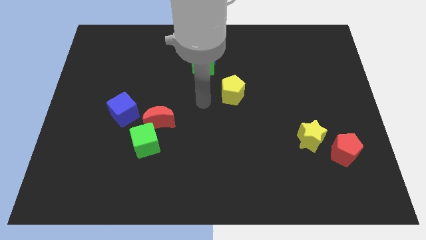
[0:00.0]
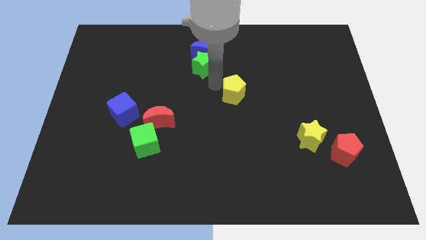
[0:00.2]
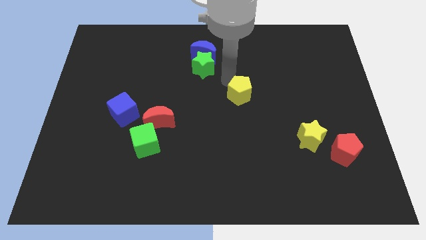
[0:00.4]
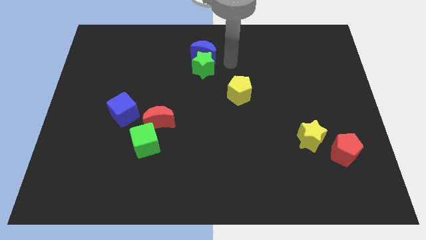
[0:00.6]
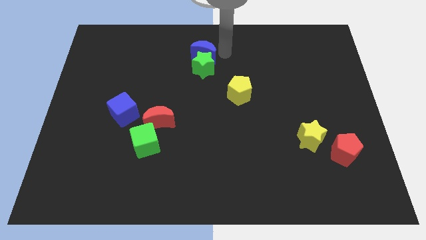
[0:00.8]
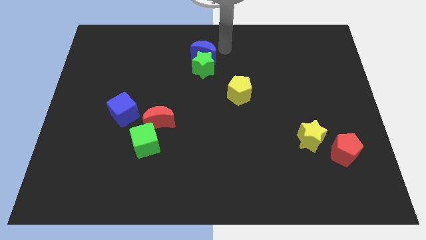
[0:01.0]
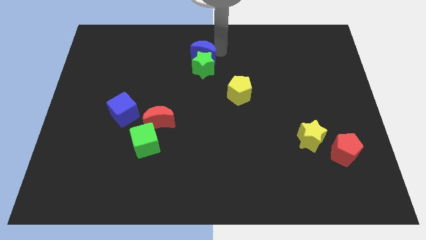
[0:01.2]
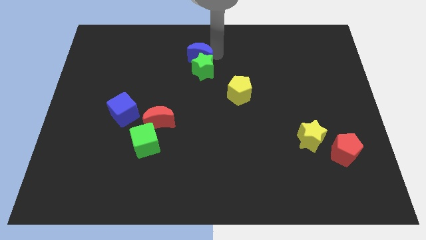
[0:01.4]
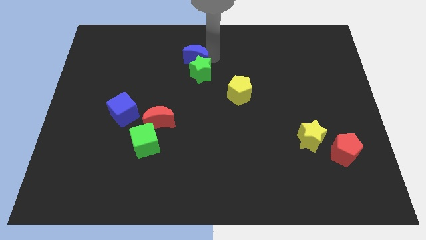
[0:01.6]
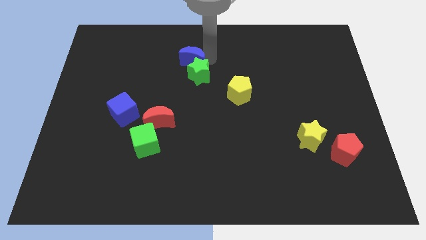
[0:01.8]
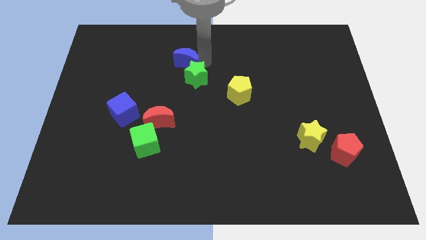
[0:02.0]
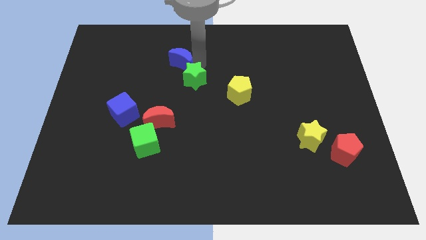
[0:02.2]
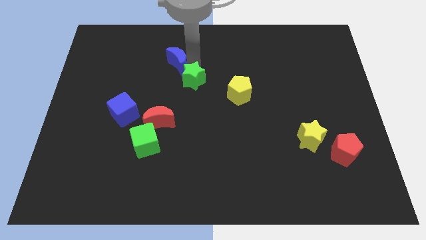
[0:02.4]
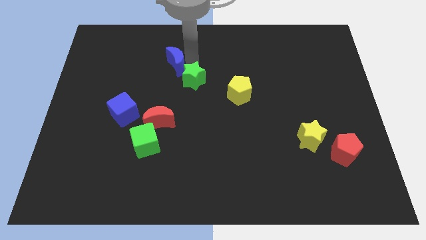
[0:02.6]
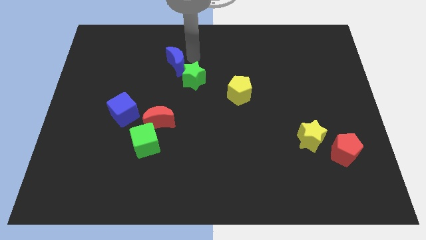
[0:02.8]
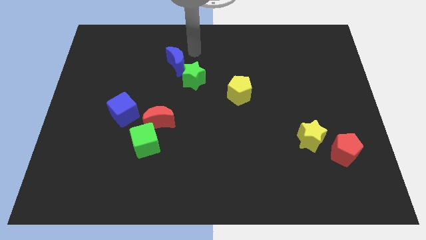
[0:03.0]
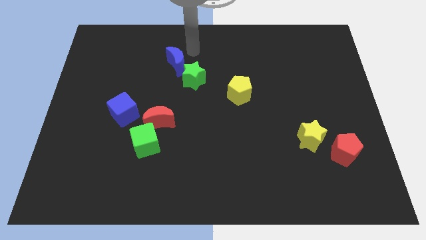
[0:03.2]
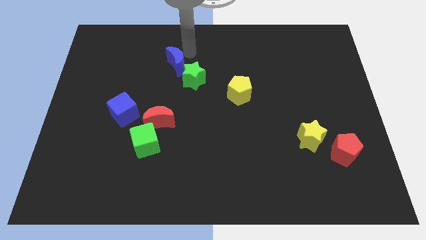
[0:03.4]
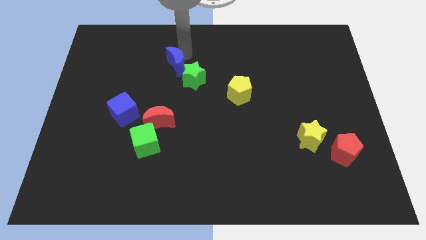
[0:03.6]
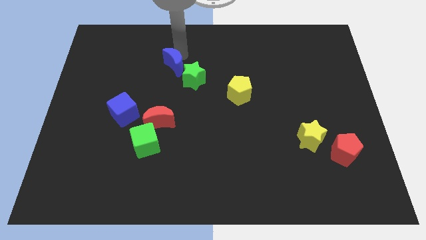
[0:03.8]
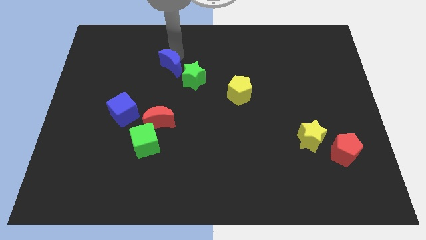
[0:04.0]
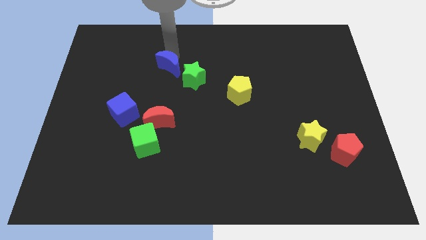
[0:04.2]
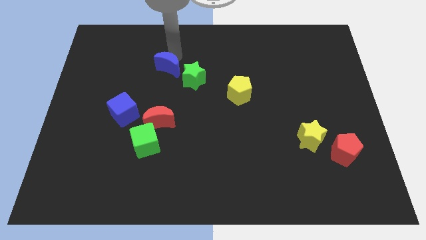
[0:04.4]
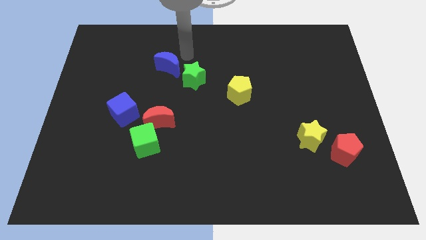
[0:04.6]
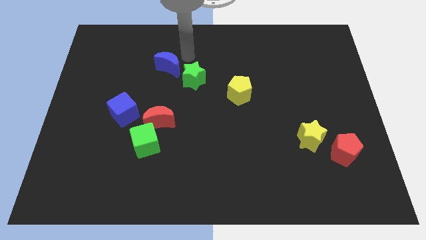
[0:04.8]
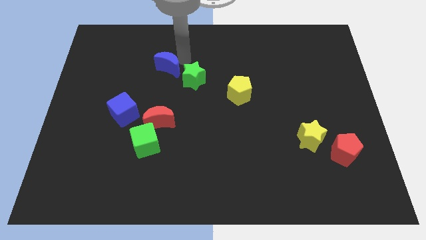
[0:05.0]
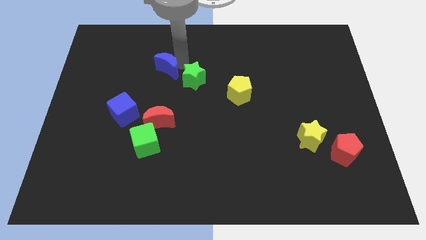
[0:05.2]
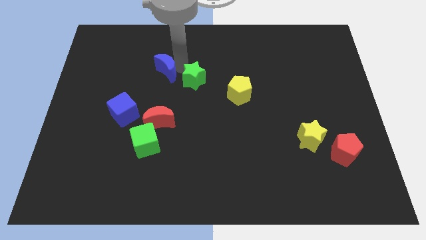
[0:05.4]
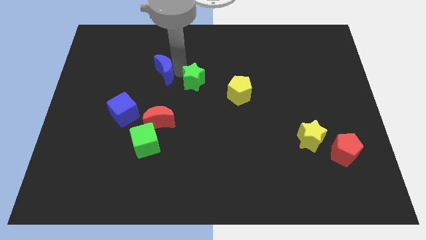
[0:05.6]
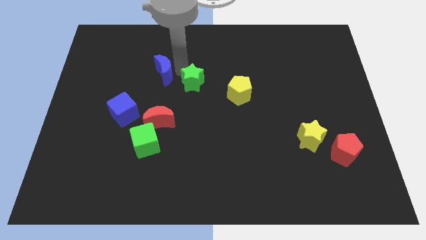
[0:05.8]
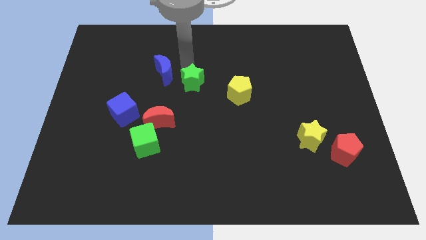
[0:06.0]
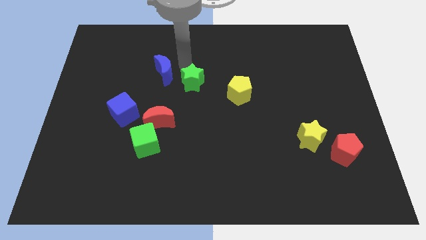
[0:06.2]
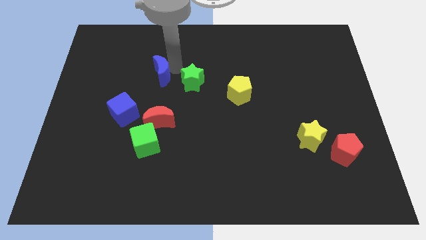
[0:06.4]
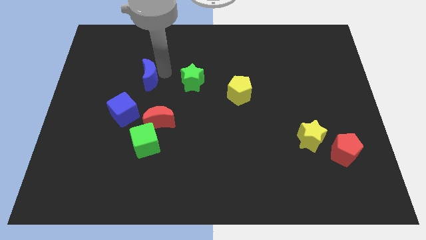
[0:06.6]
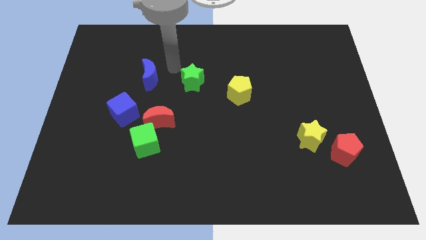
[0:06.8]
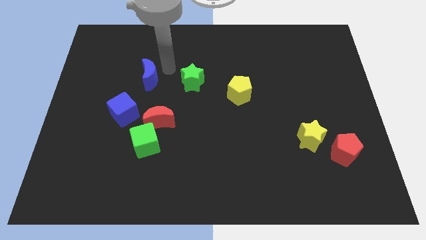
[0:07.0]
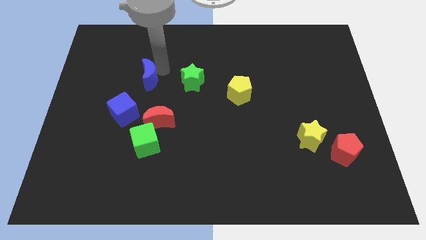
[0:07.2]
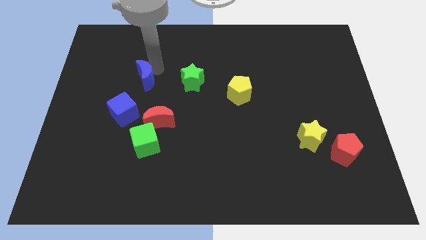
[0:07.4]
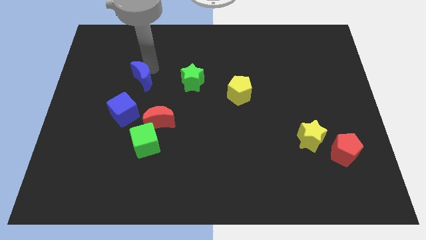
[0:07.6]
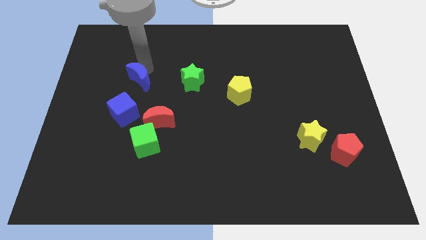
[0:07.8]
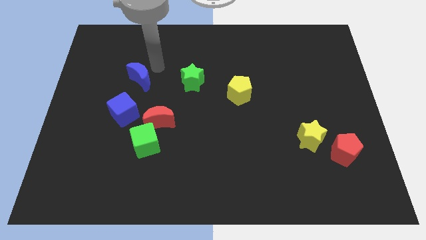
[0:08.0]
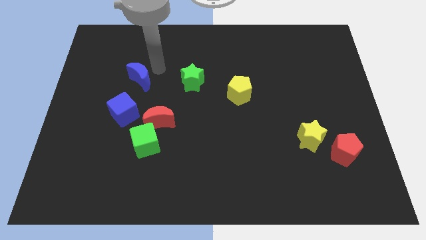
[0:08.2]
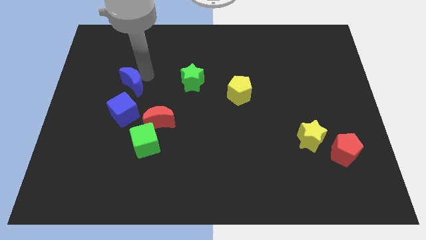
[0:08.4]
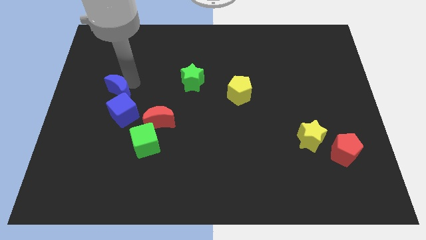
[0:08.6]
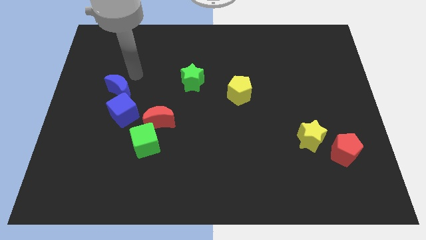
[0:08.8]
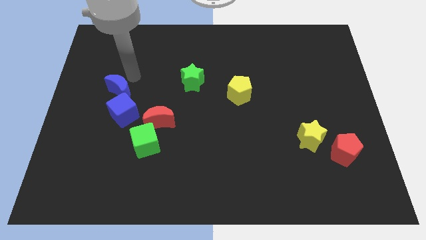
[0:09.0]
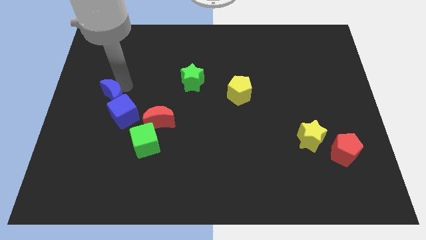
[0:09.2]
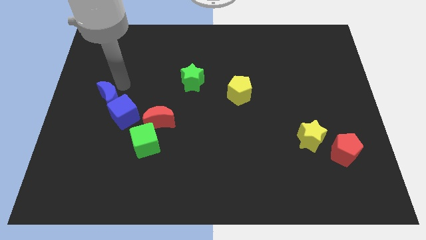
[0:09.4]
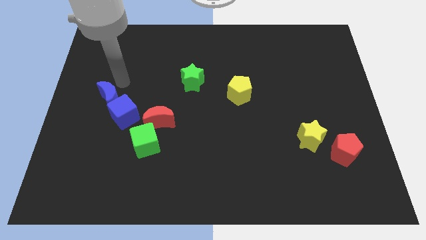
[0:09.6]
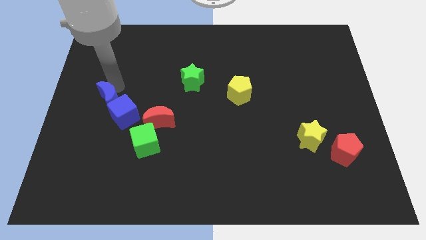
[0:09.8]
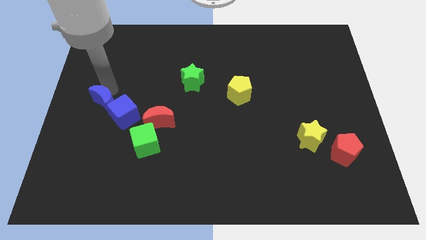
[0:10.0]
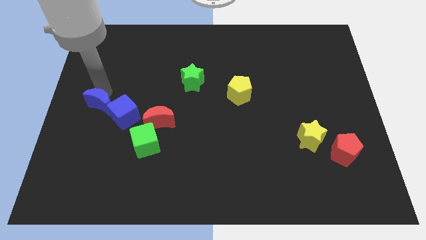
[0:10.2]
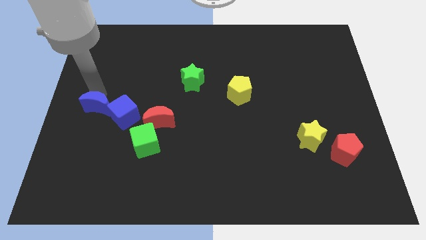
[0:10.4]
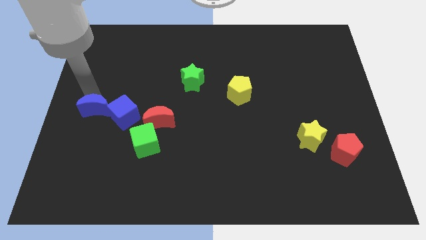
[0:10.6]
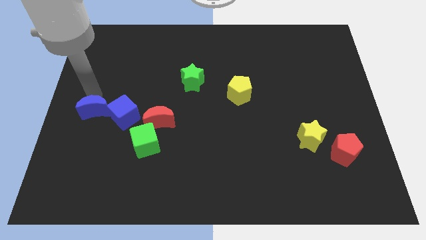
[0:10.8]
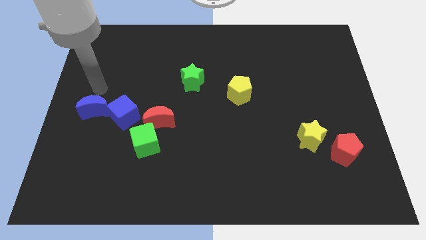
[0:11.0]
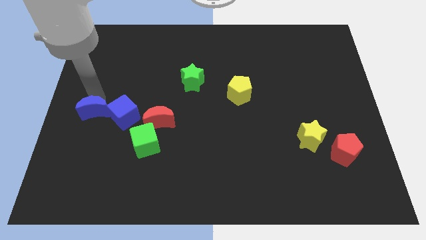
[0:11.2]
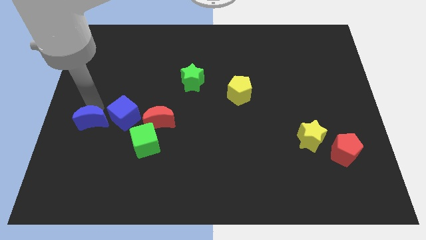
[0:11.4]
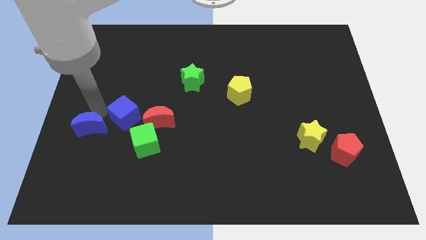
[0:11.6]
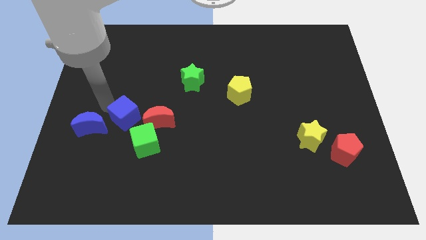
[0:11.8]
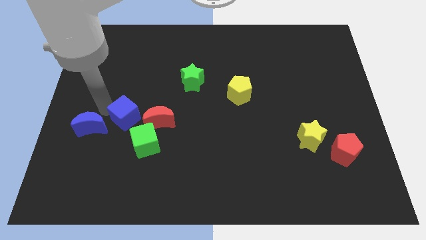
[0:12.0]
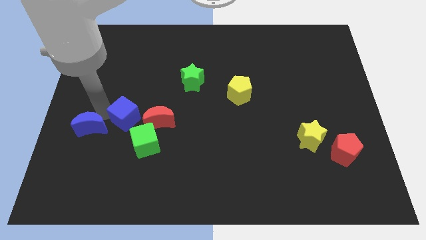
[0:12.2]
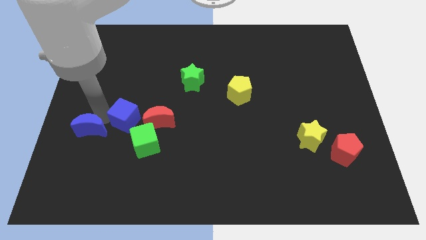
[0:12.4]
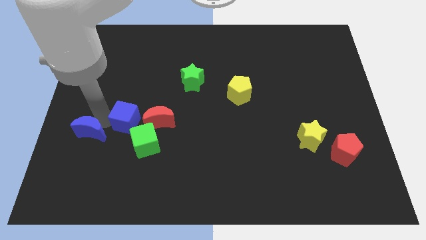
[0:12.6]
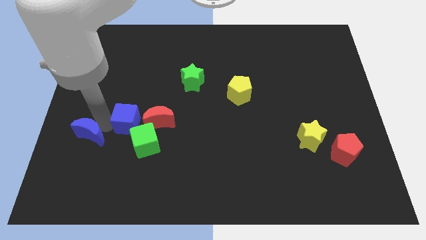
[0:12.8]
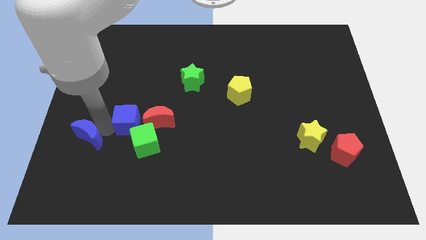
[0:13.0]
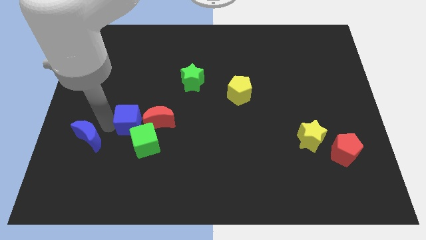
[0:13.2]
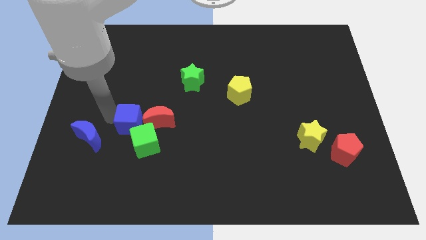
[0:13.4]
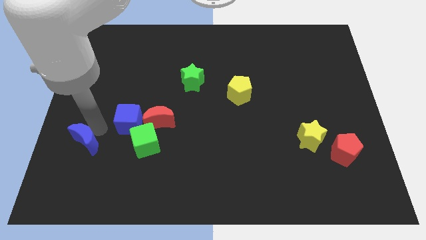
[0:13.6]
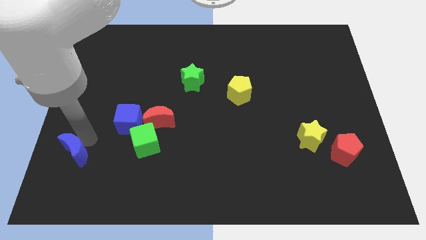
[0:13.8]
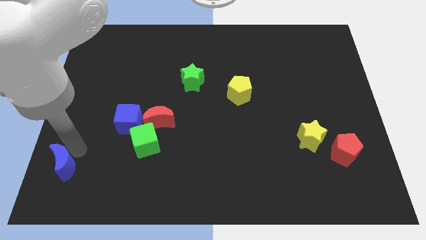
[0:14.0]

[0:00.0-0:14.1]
slide the blue moon to the bottom left
